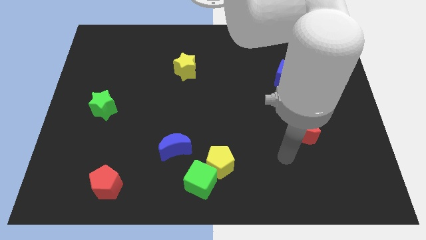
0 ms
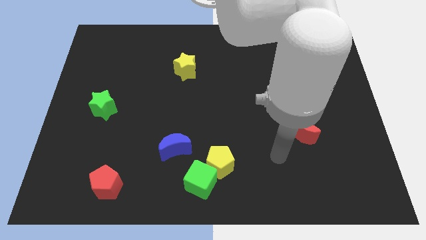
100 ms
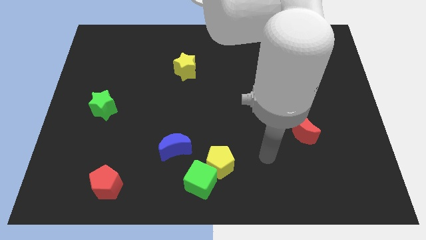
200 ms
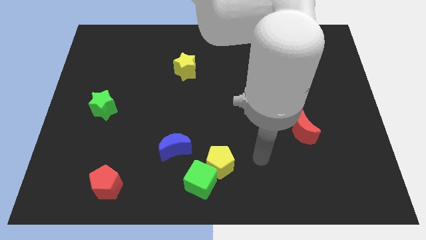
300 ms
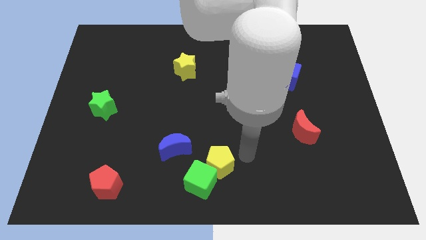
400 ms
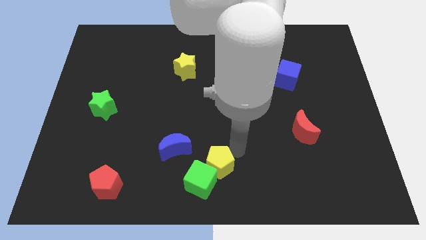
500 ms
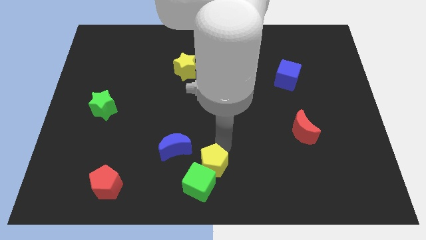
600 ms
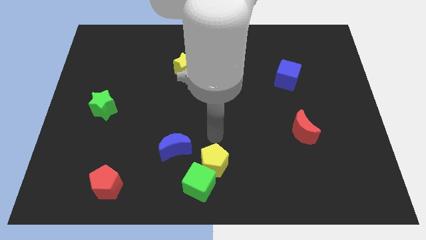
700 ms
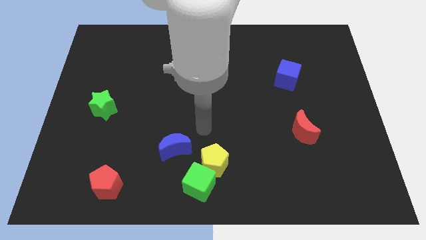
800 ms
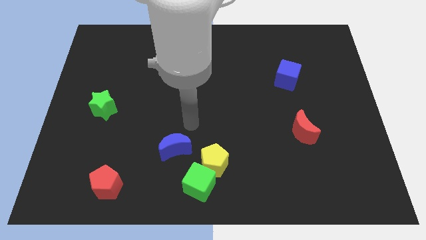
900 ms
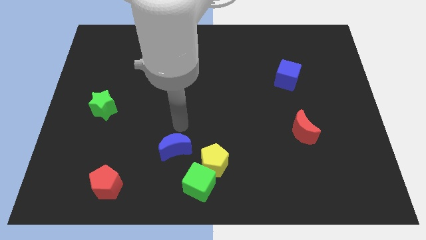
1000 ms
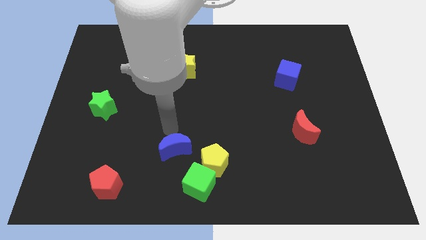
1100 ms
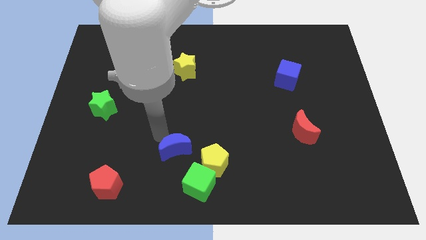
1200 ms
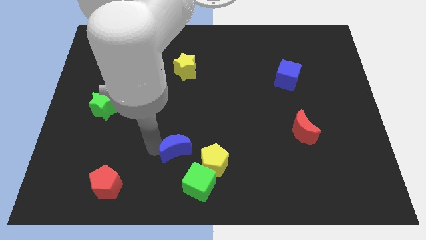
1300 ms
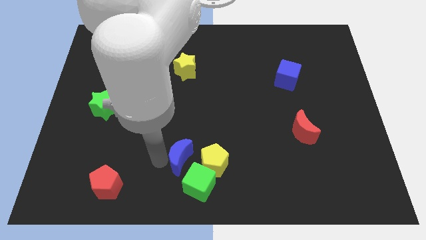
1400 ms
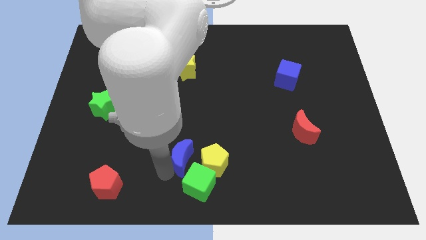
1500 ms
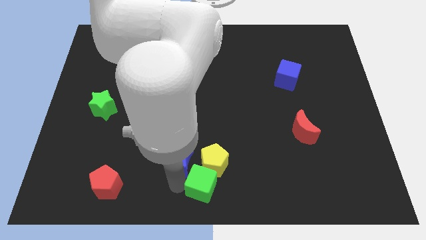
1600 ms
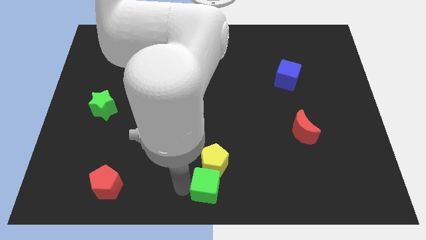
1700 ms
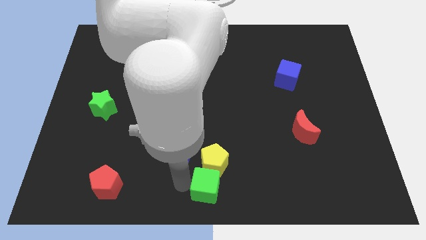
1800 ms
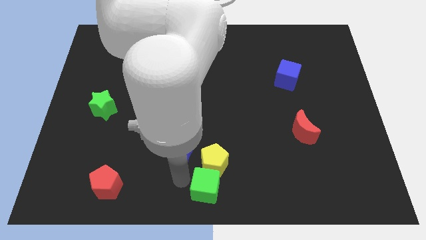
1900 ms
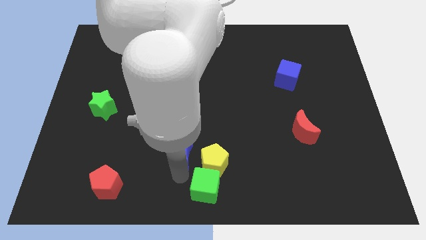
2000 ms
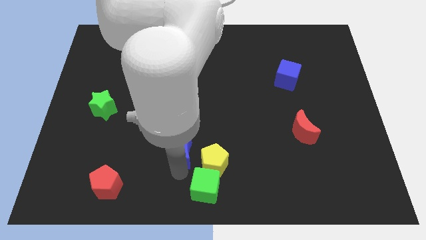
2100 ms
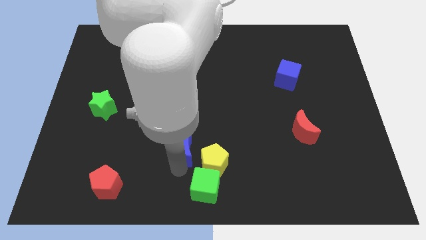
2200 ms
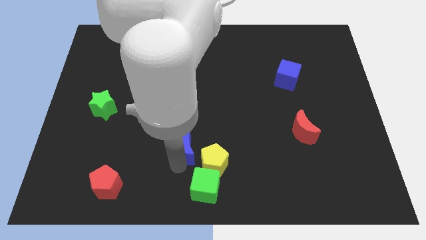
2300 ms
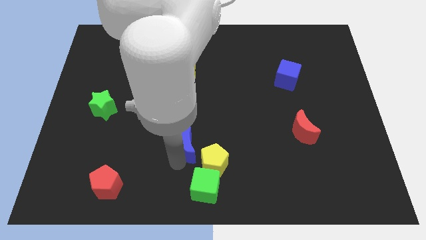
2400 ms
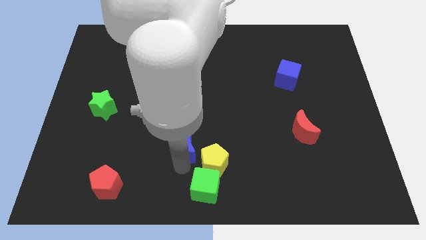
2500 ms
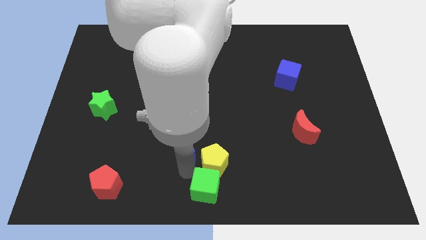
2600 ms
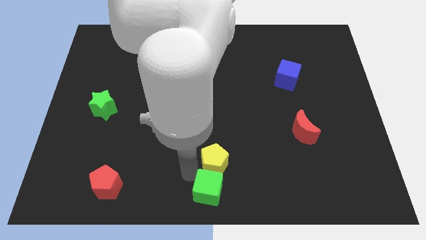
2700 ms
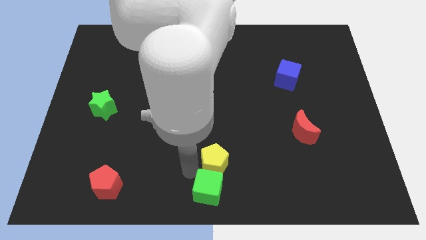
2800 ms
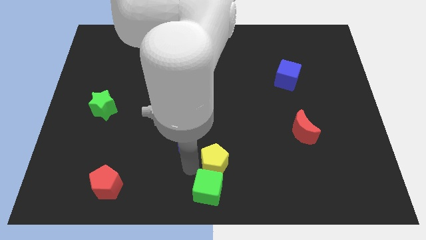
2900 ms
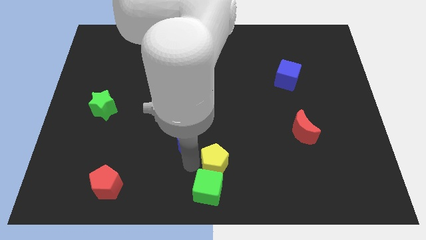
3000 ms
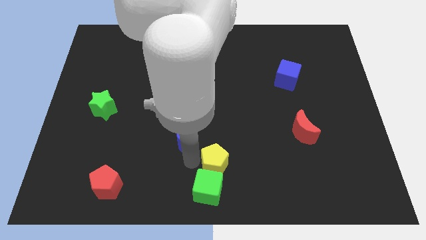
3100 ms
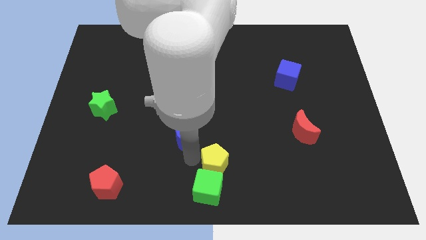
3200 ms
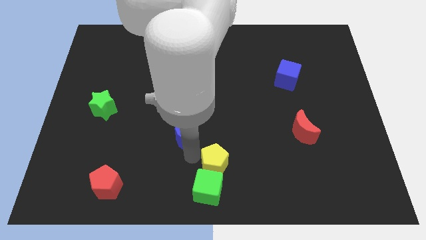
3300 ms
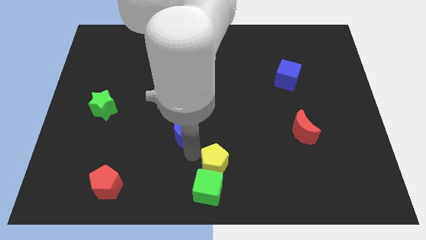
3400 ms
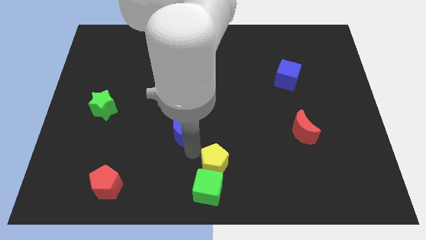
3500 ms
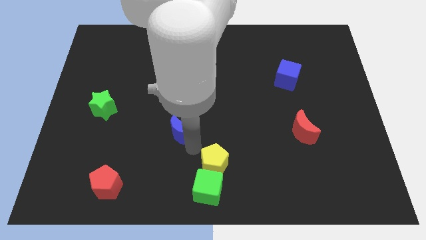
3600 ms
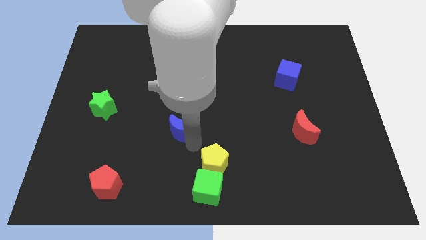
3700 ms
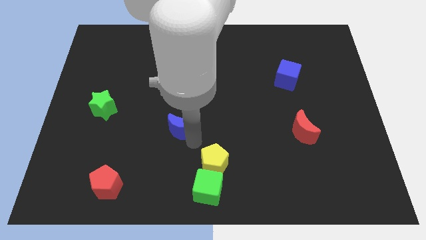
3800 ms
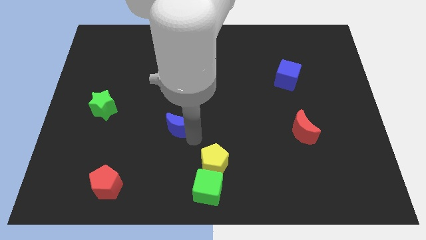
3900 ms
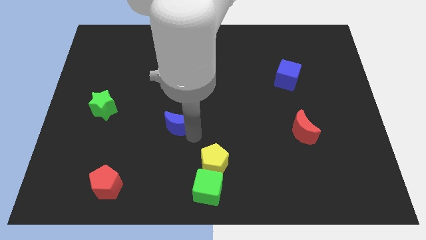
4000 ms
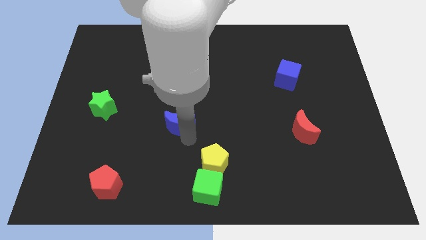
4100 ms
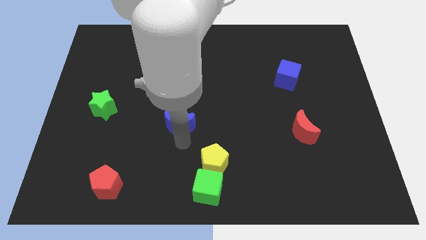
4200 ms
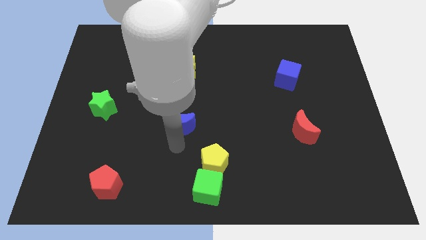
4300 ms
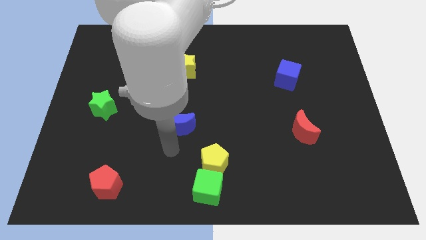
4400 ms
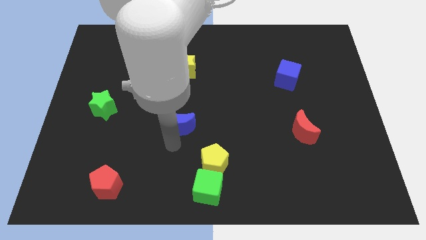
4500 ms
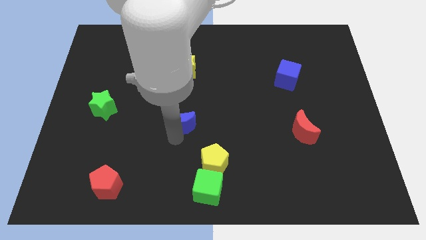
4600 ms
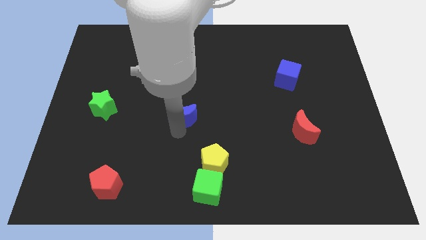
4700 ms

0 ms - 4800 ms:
move the blue moon slightly upwards

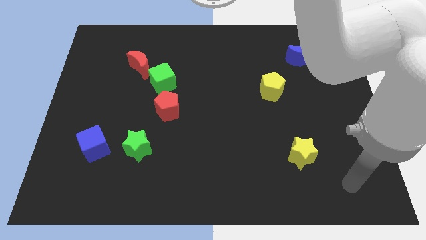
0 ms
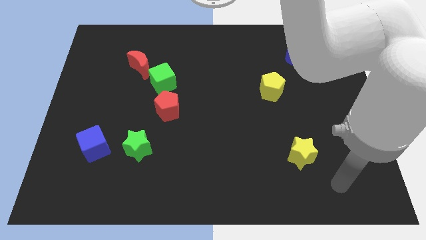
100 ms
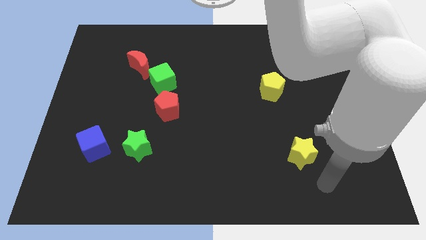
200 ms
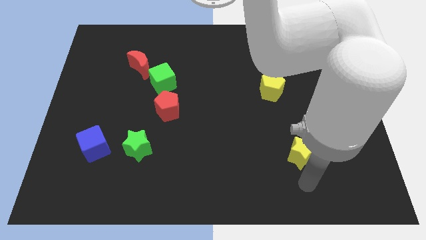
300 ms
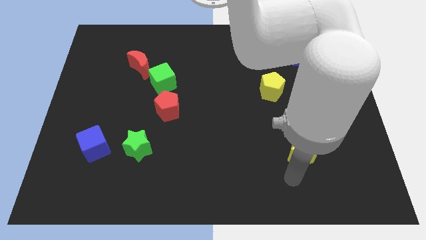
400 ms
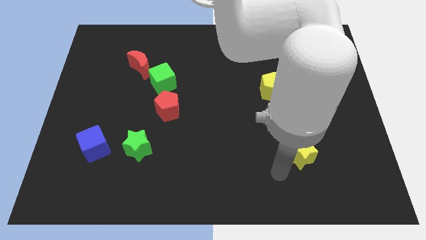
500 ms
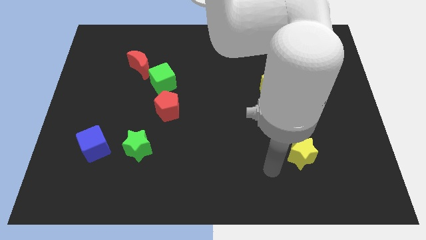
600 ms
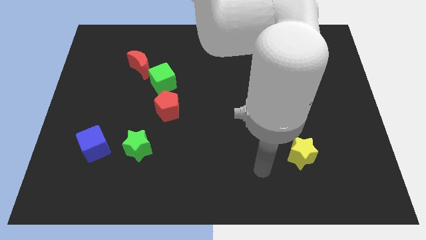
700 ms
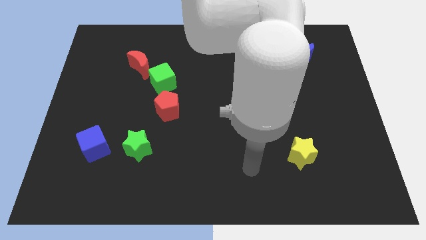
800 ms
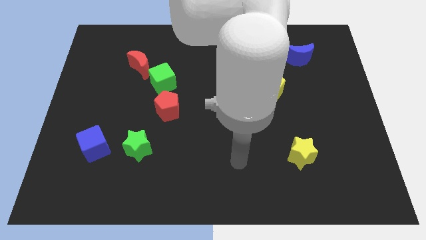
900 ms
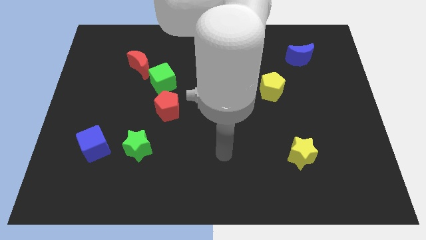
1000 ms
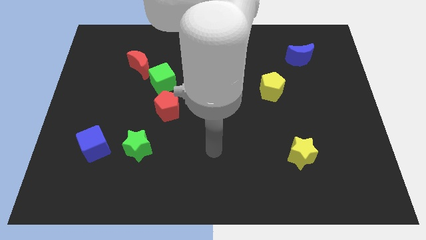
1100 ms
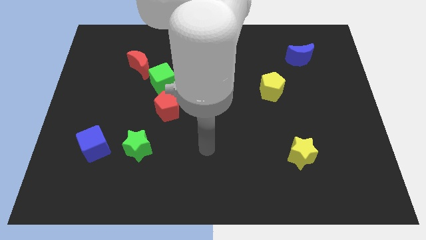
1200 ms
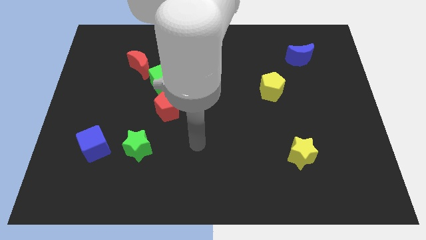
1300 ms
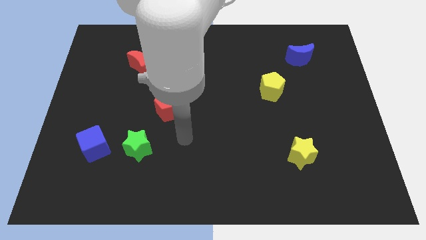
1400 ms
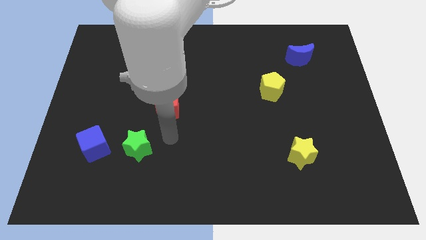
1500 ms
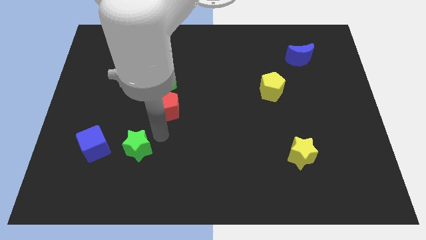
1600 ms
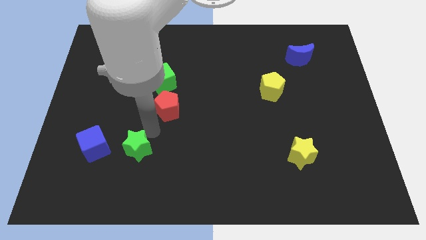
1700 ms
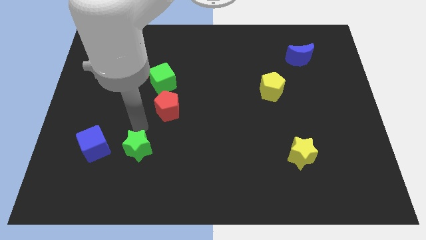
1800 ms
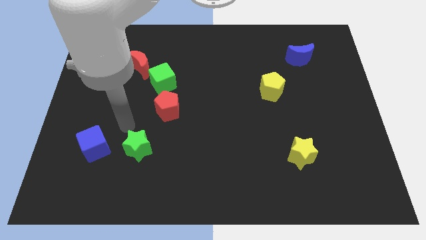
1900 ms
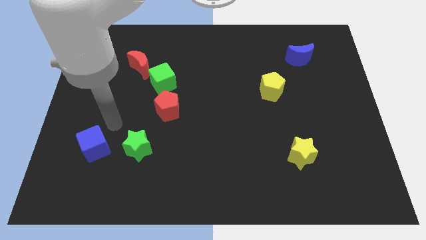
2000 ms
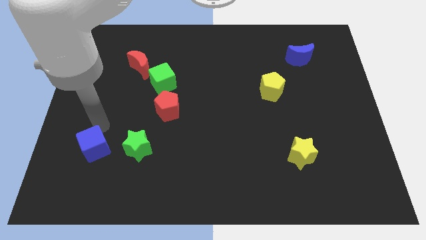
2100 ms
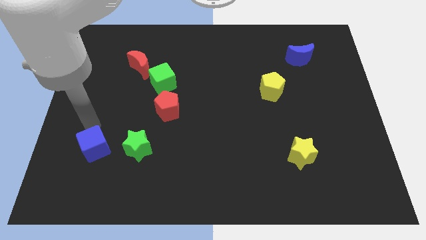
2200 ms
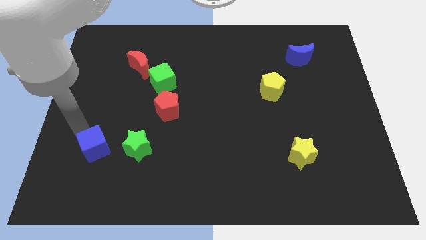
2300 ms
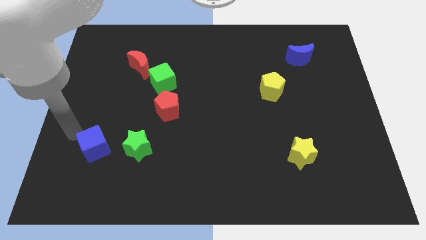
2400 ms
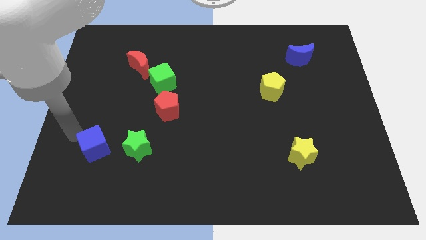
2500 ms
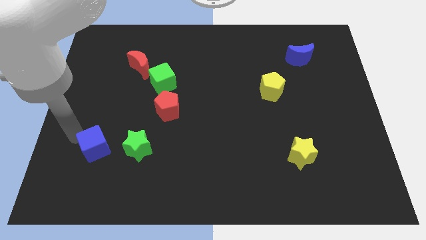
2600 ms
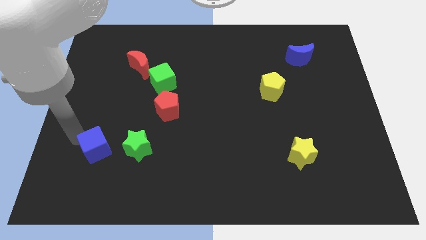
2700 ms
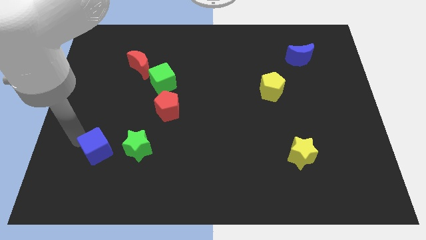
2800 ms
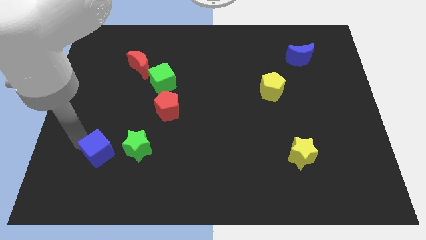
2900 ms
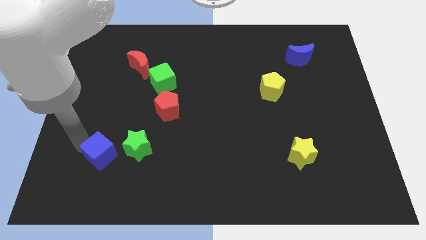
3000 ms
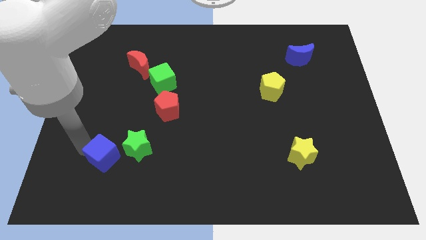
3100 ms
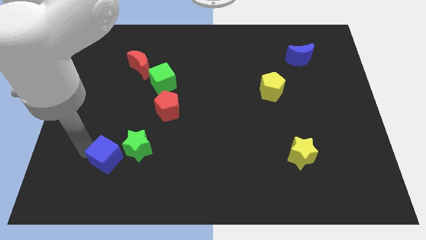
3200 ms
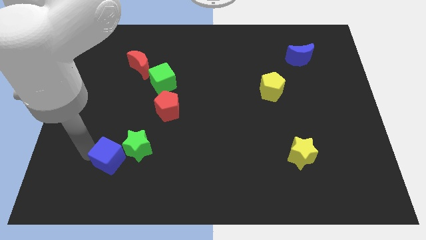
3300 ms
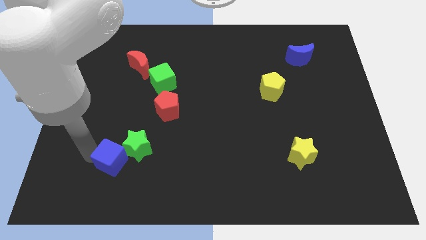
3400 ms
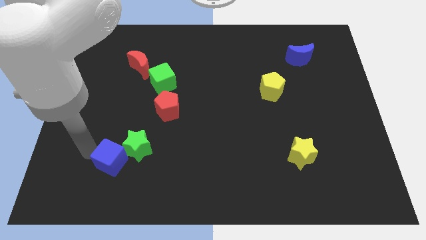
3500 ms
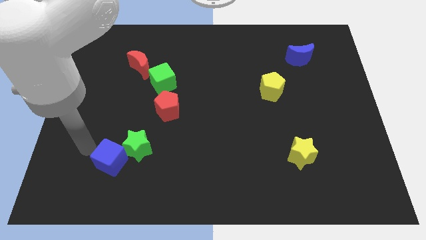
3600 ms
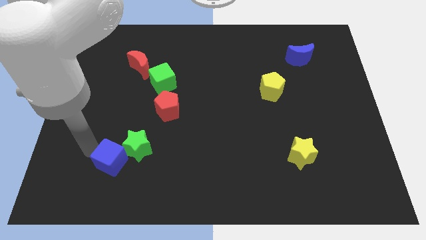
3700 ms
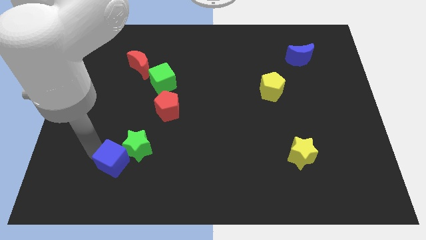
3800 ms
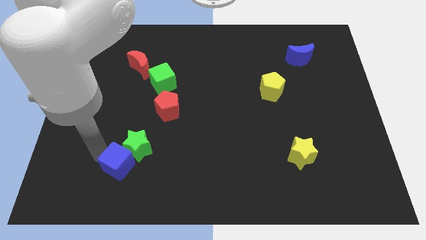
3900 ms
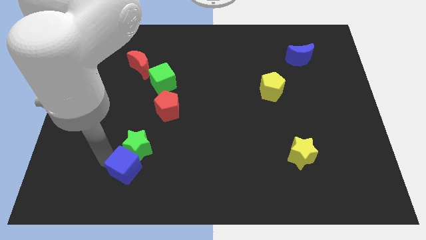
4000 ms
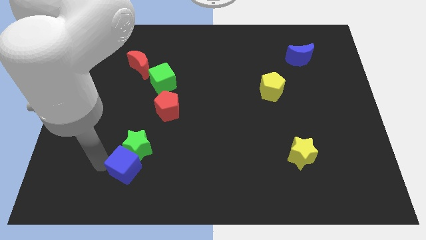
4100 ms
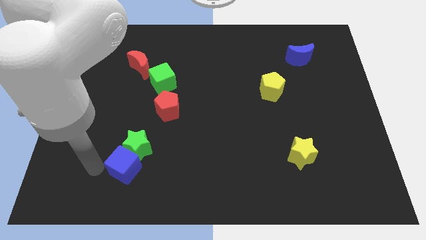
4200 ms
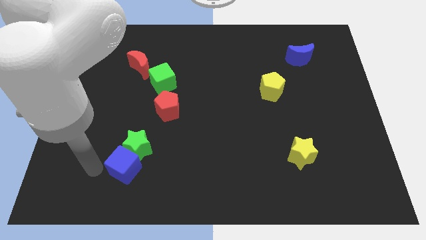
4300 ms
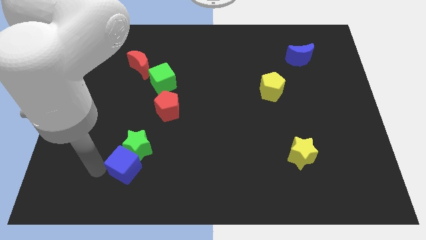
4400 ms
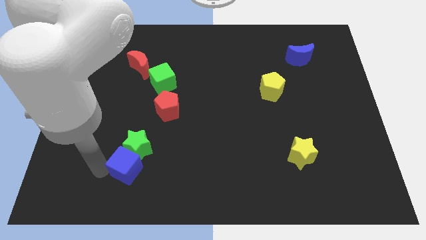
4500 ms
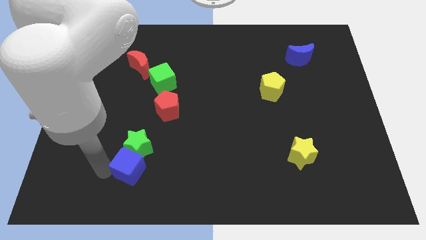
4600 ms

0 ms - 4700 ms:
slightly move the blue cube to the right
